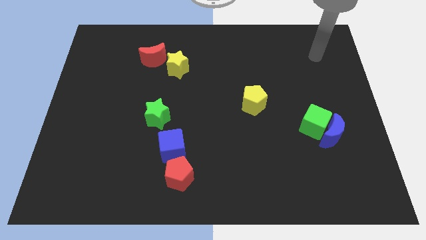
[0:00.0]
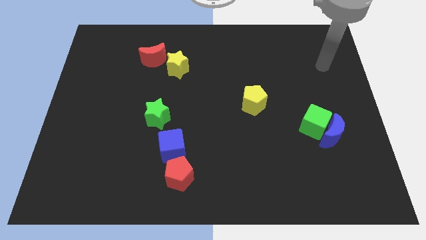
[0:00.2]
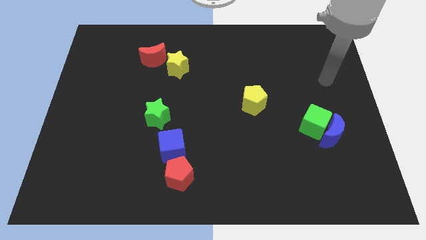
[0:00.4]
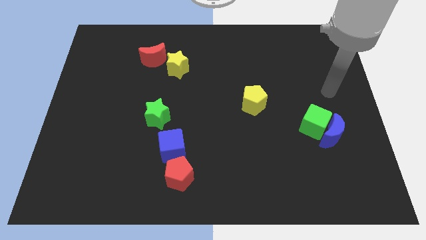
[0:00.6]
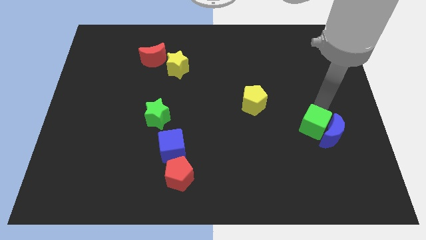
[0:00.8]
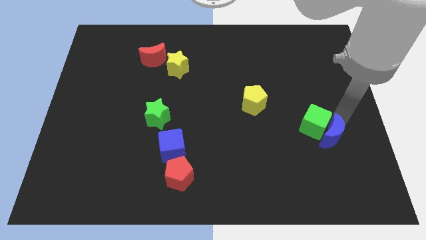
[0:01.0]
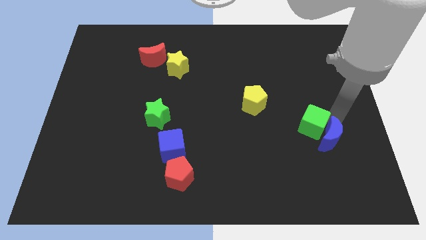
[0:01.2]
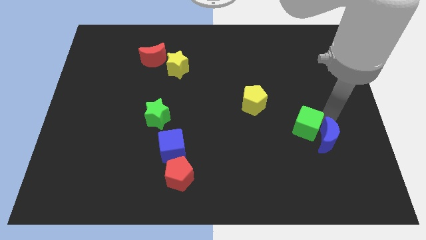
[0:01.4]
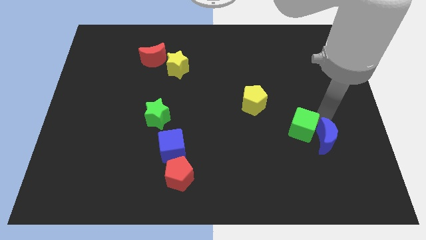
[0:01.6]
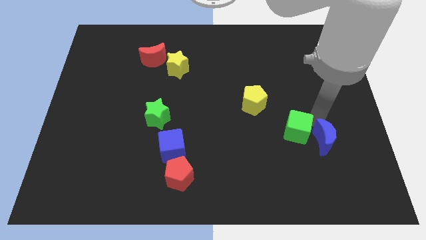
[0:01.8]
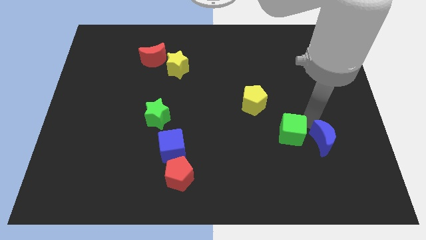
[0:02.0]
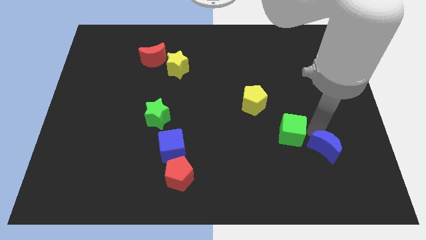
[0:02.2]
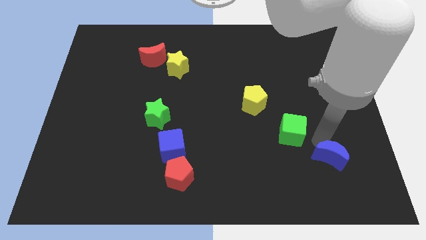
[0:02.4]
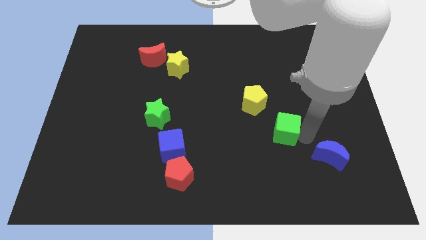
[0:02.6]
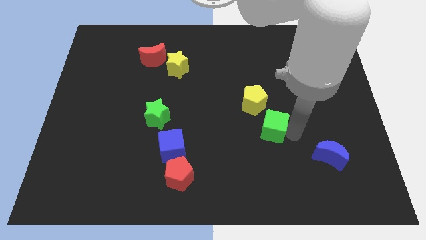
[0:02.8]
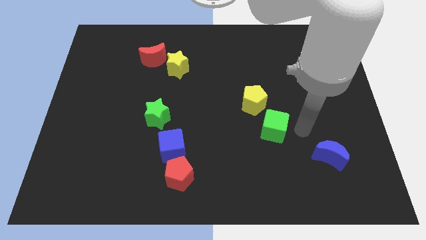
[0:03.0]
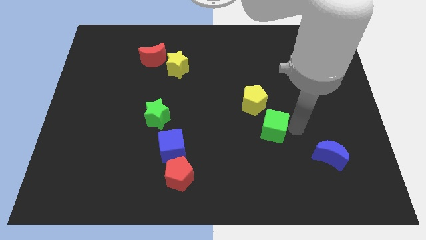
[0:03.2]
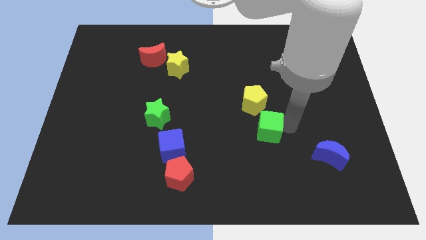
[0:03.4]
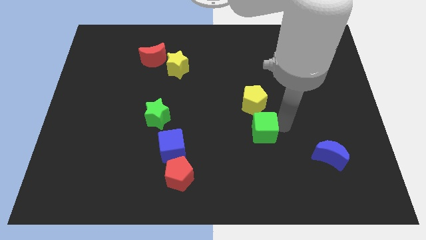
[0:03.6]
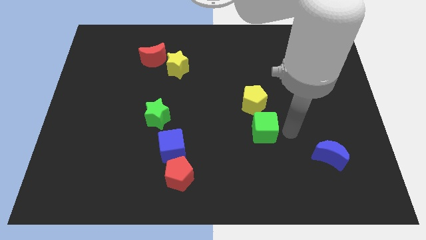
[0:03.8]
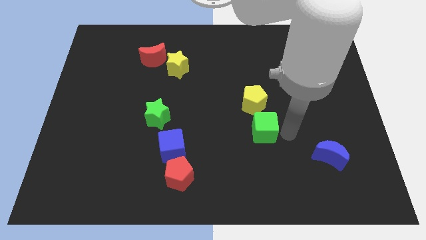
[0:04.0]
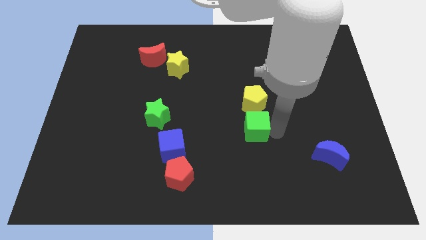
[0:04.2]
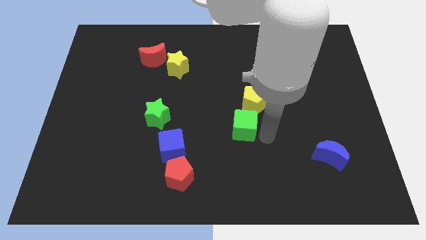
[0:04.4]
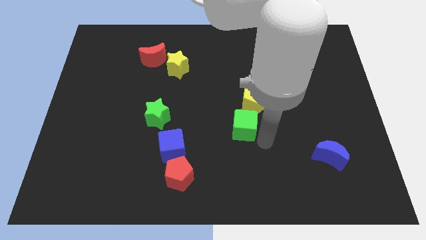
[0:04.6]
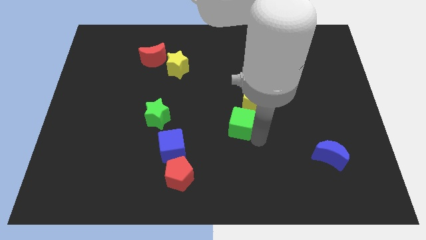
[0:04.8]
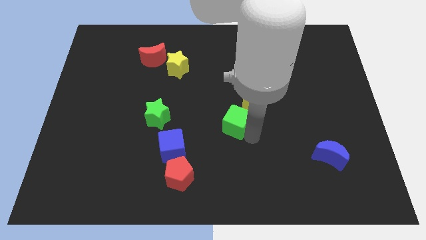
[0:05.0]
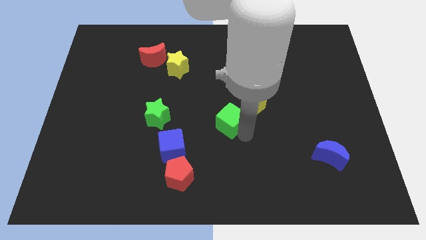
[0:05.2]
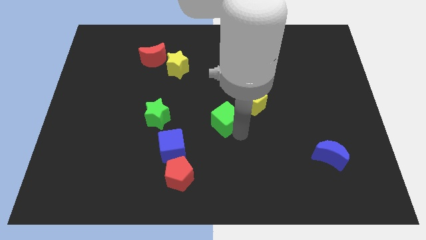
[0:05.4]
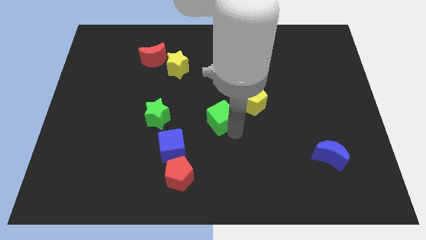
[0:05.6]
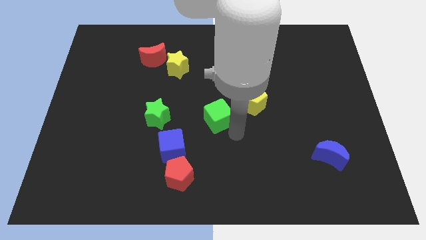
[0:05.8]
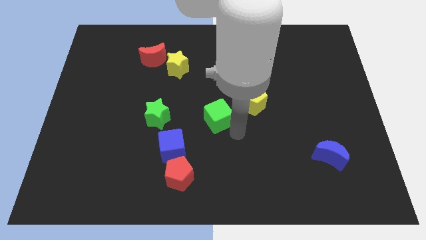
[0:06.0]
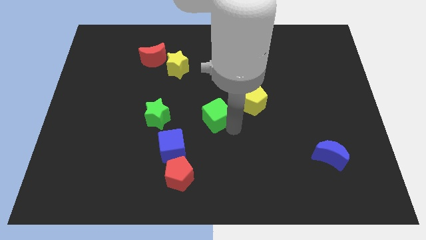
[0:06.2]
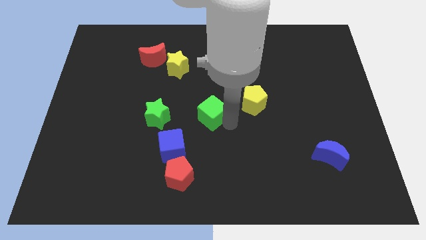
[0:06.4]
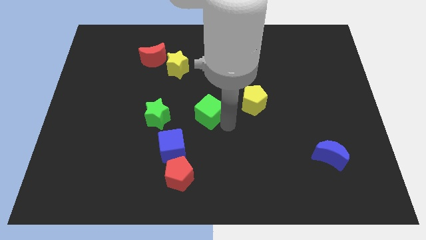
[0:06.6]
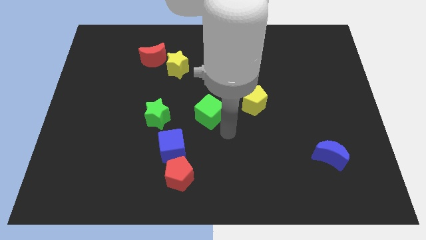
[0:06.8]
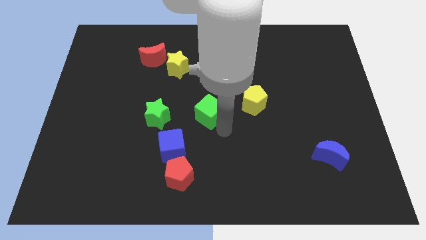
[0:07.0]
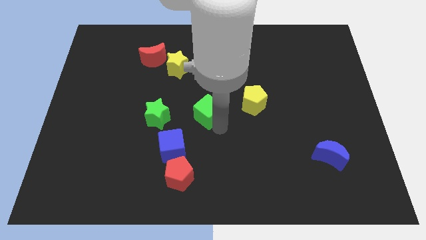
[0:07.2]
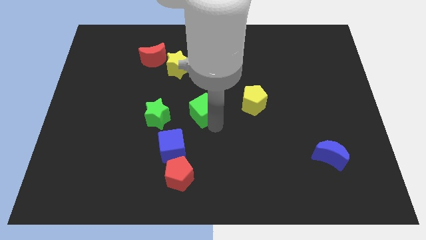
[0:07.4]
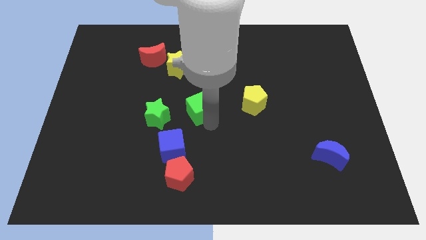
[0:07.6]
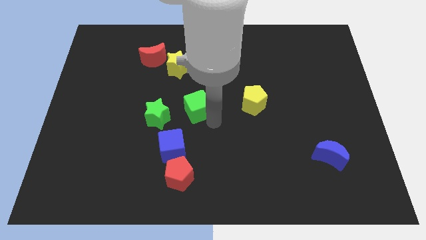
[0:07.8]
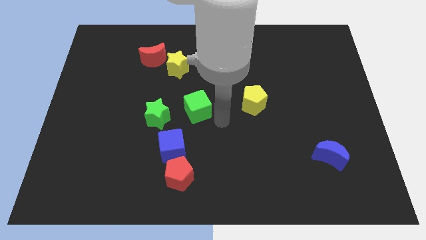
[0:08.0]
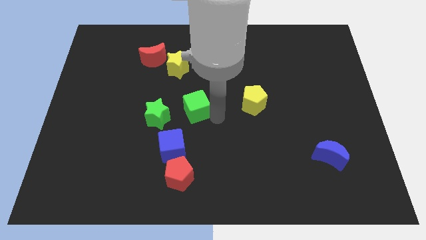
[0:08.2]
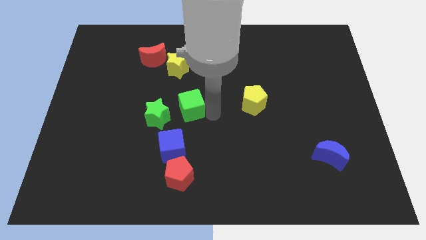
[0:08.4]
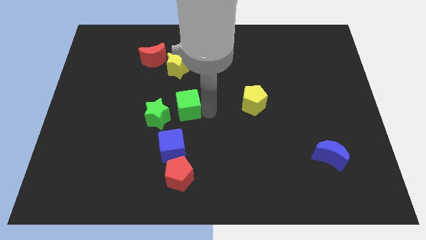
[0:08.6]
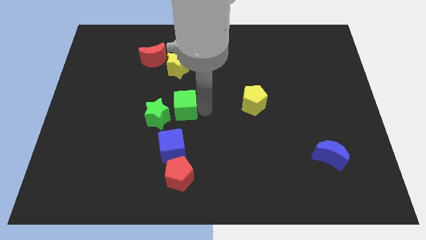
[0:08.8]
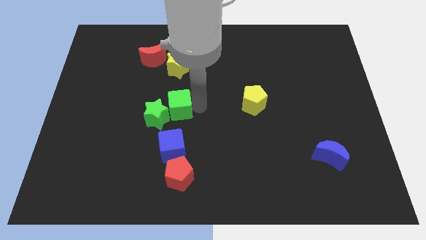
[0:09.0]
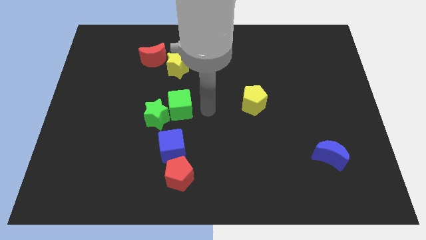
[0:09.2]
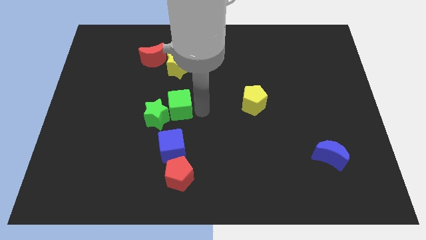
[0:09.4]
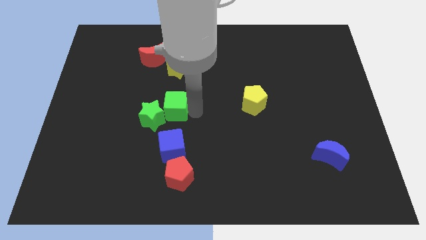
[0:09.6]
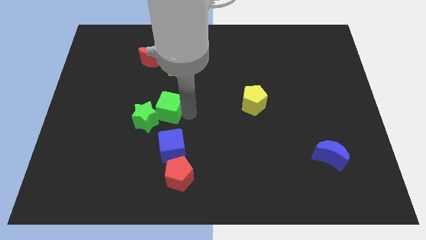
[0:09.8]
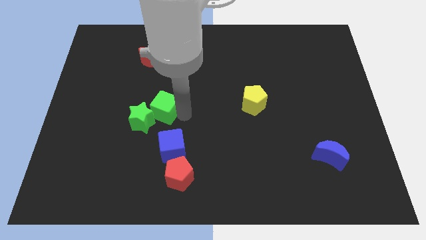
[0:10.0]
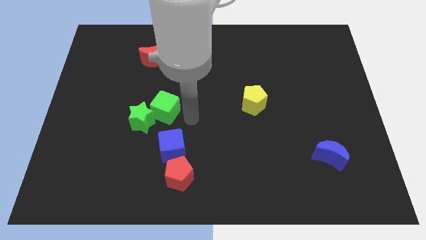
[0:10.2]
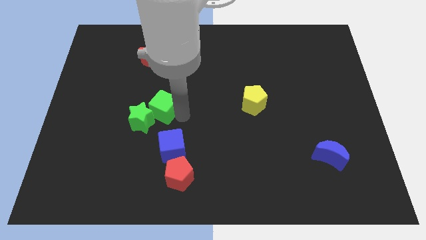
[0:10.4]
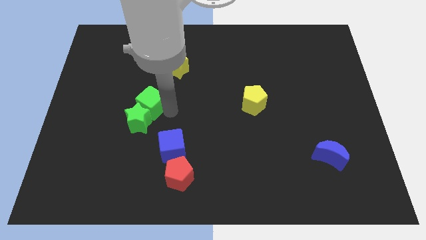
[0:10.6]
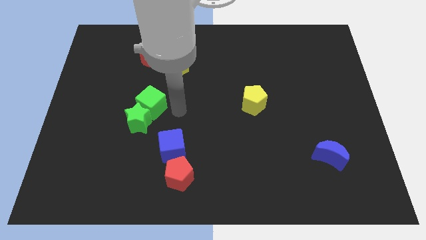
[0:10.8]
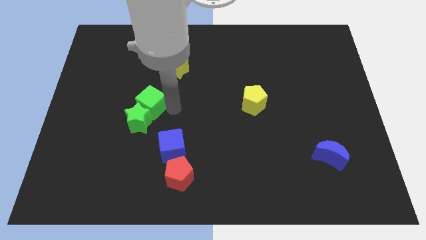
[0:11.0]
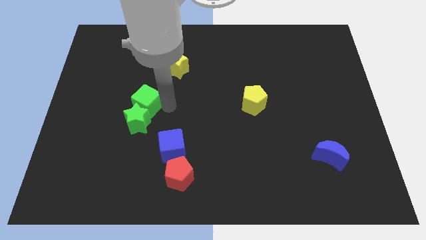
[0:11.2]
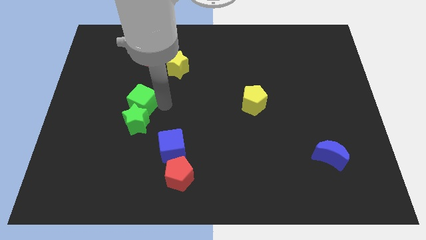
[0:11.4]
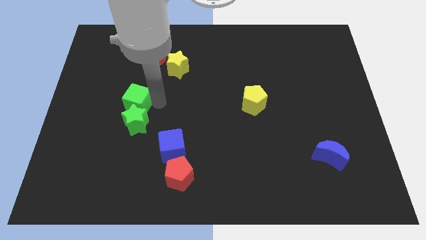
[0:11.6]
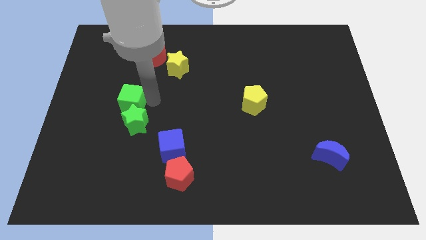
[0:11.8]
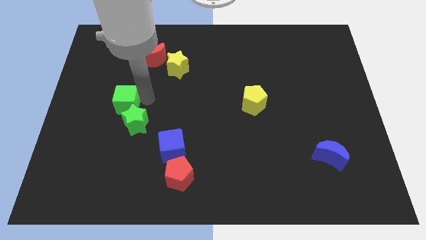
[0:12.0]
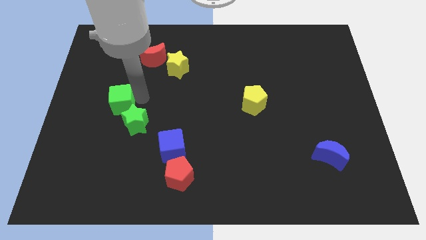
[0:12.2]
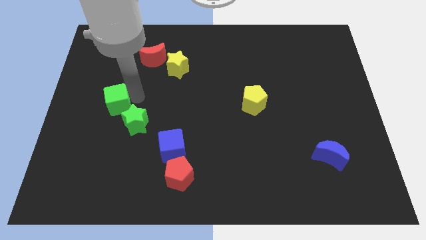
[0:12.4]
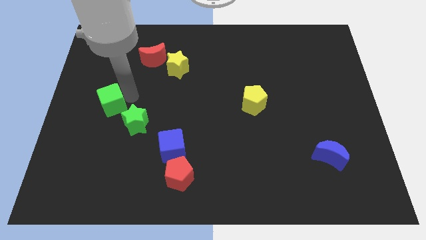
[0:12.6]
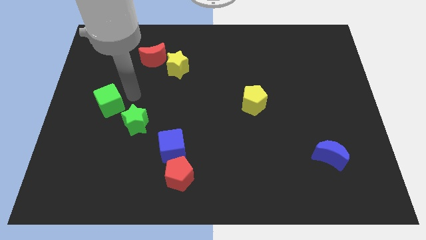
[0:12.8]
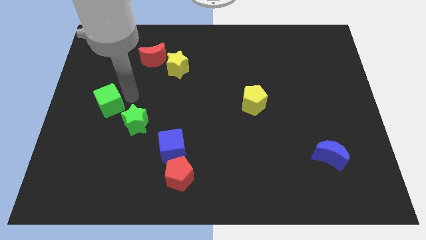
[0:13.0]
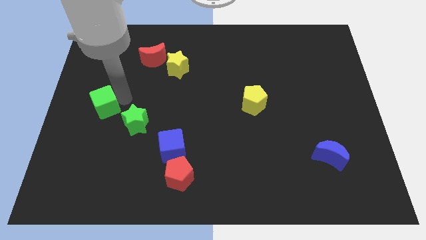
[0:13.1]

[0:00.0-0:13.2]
put the green cube to the center left
